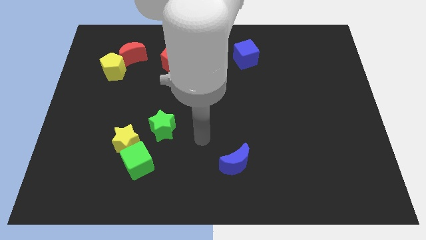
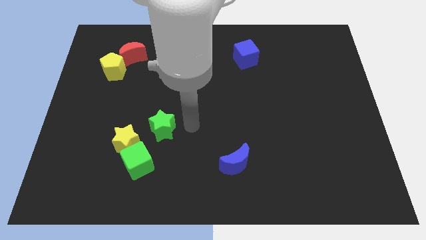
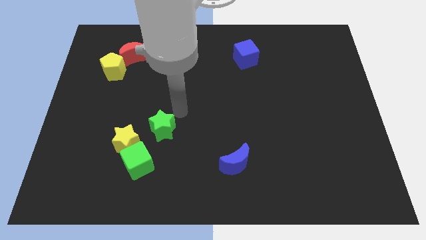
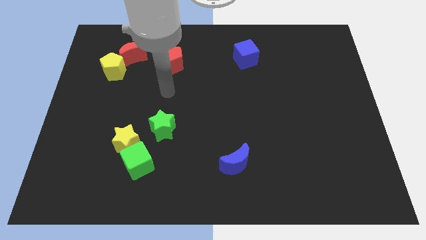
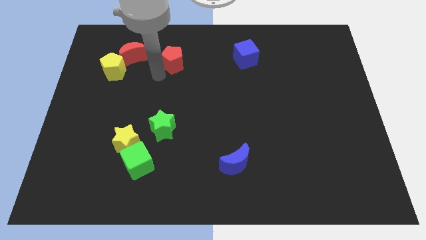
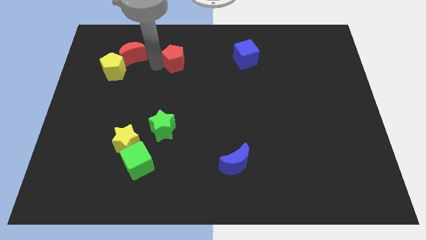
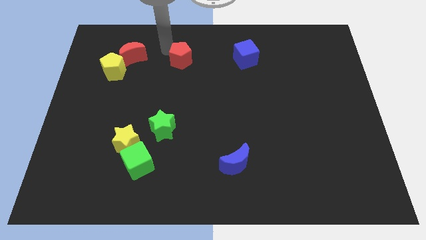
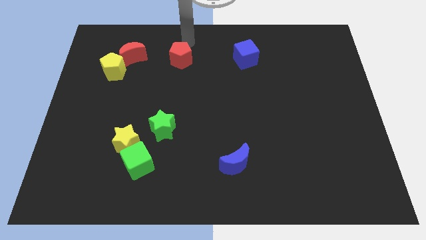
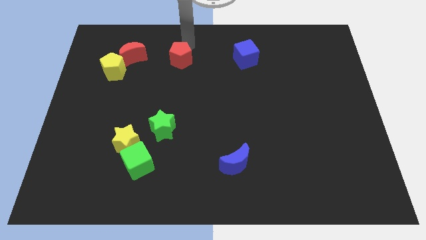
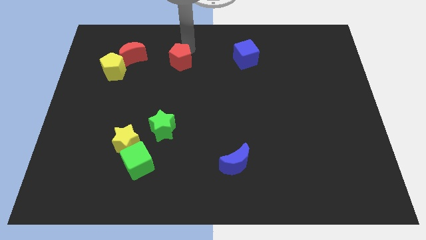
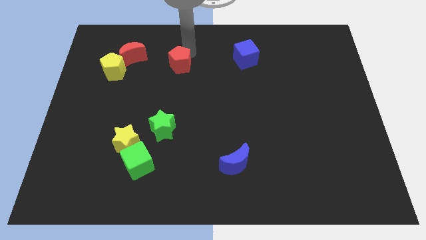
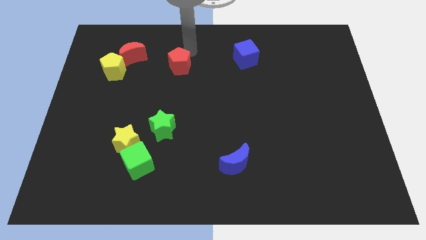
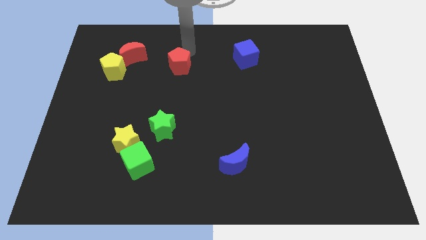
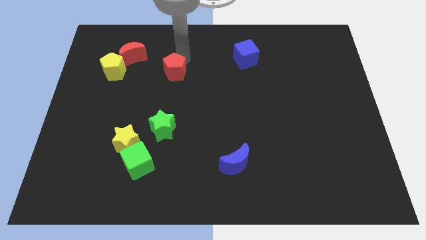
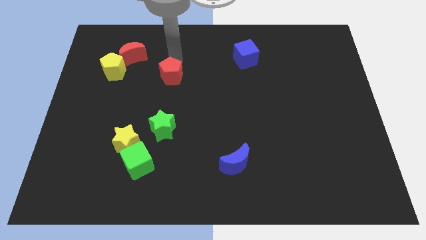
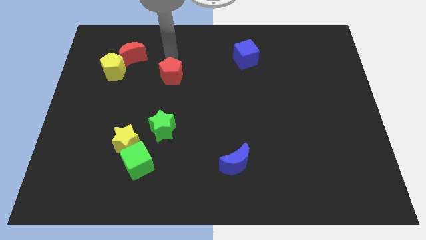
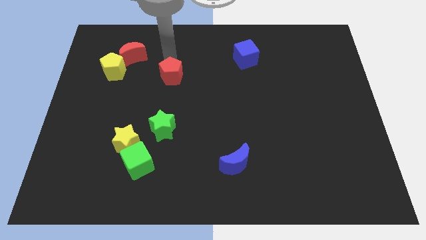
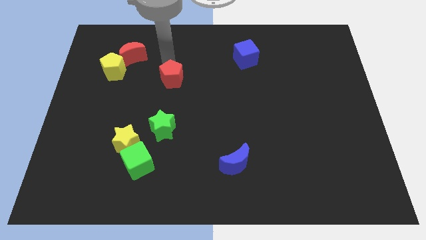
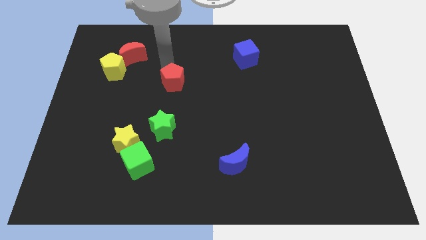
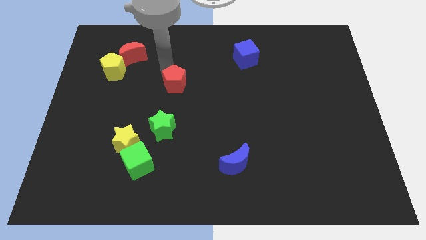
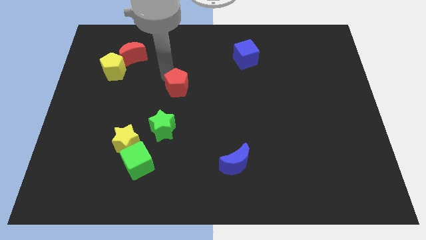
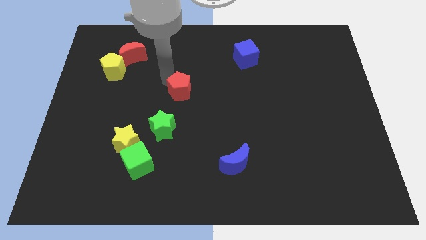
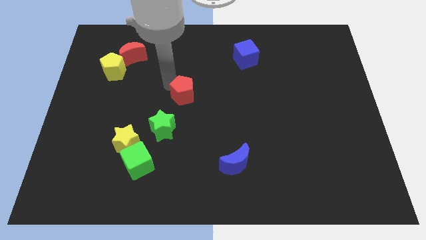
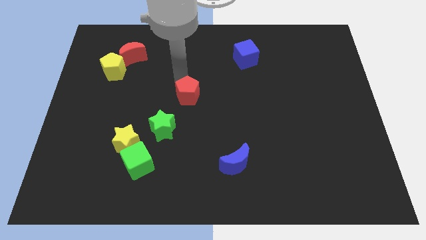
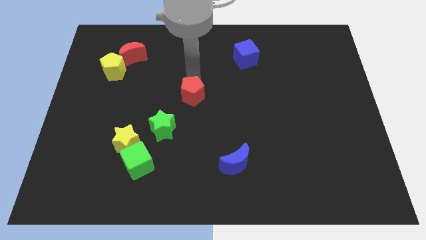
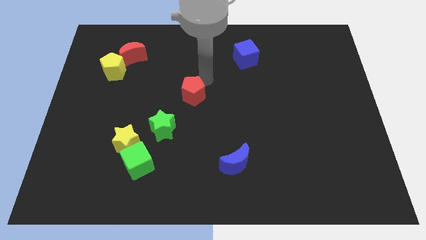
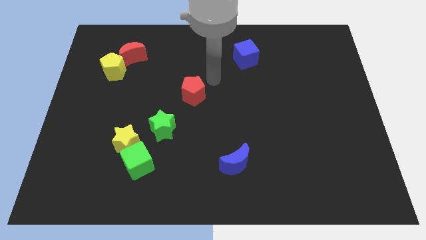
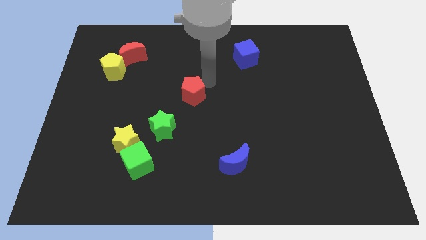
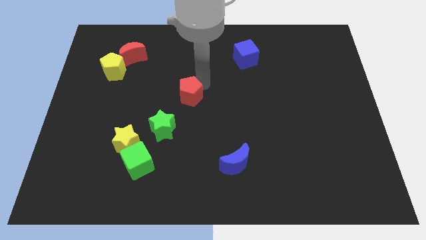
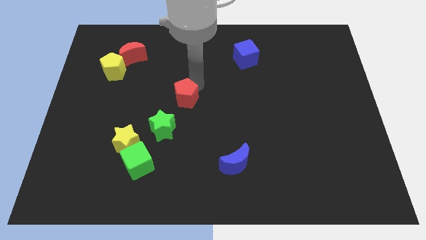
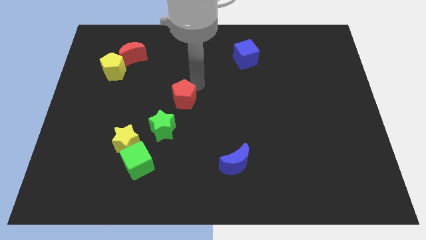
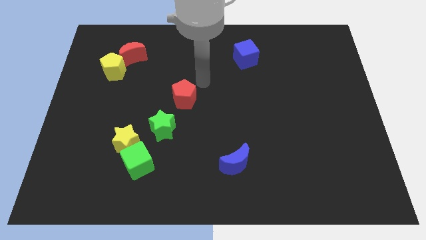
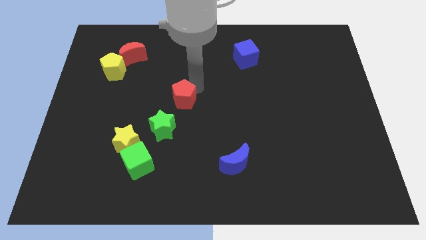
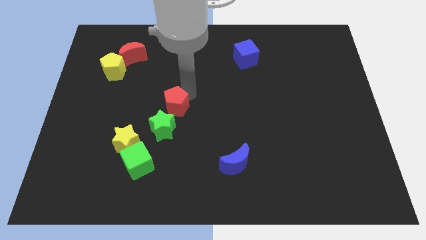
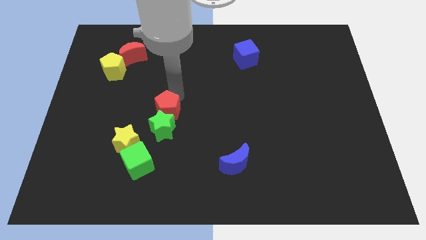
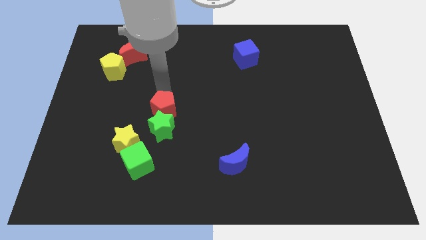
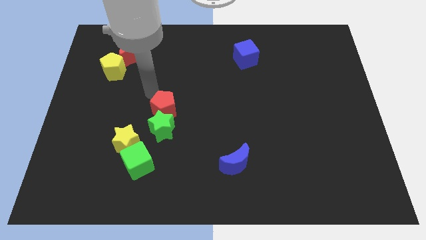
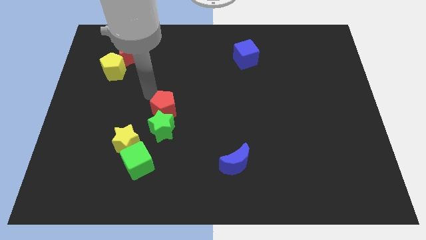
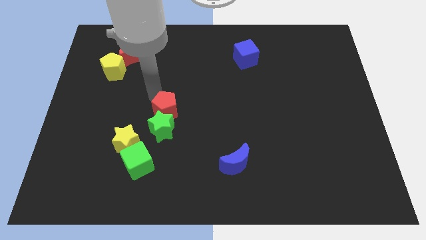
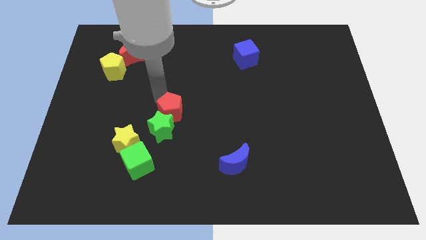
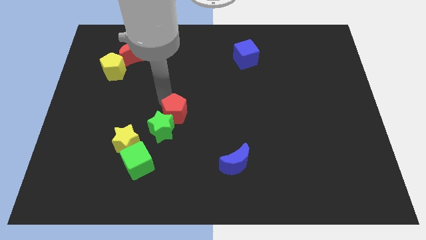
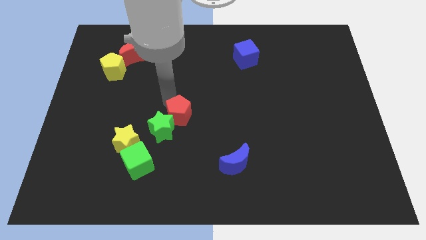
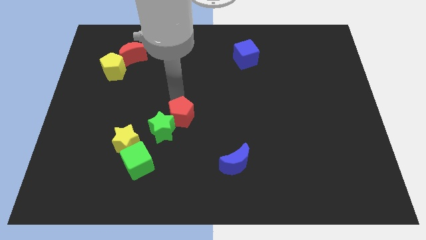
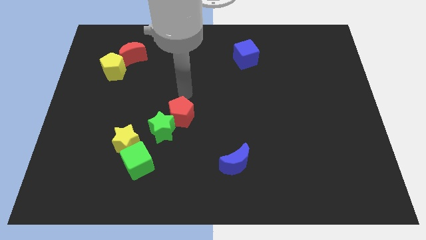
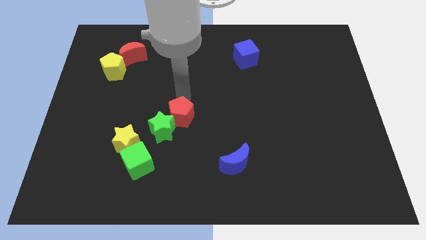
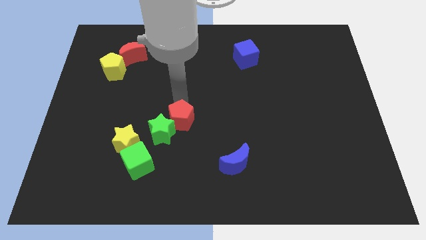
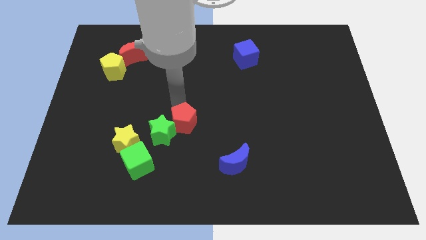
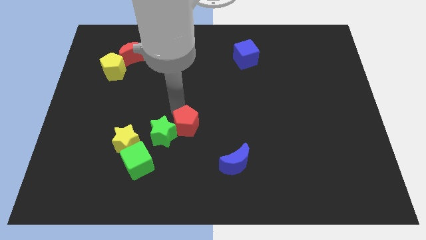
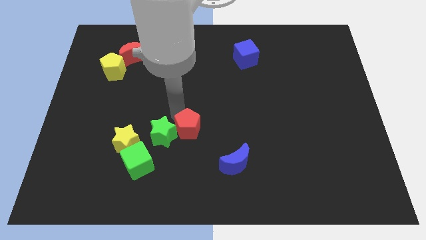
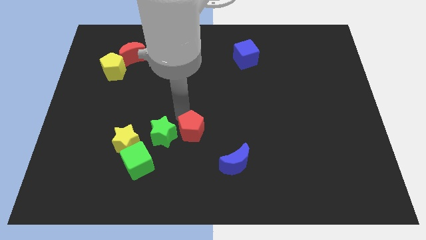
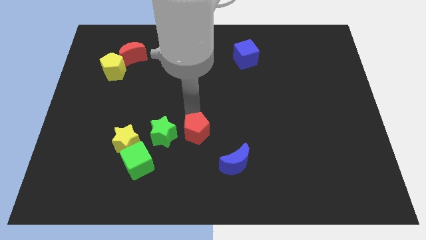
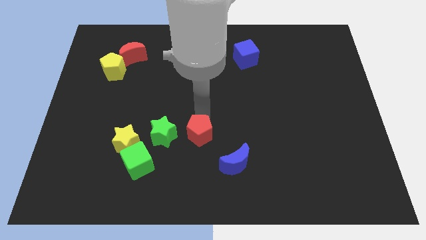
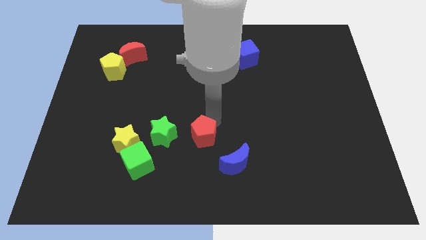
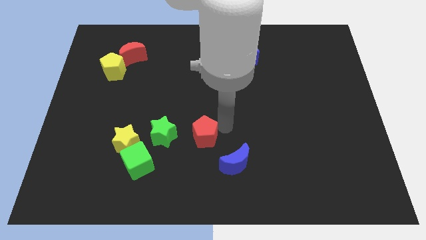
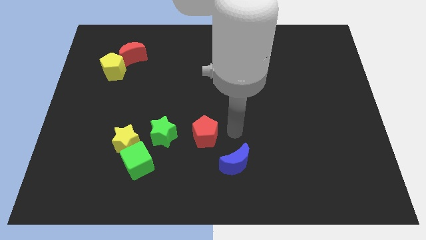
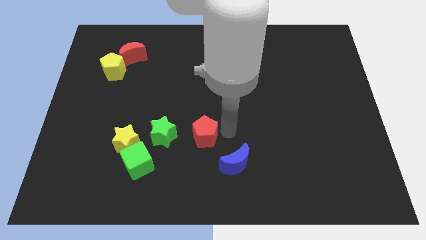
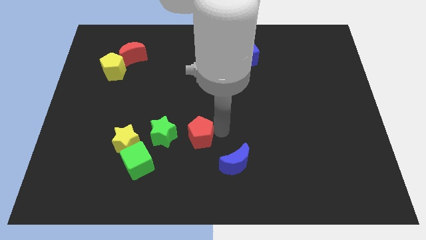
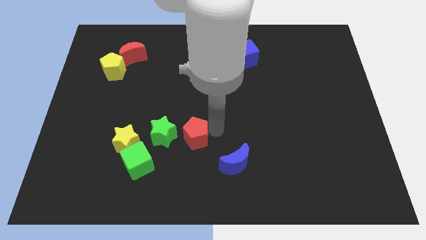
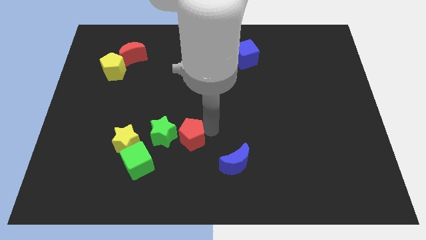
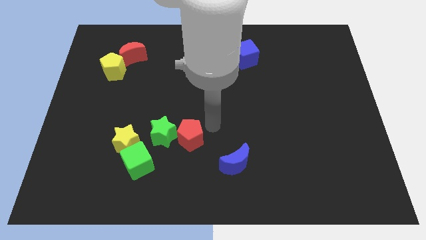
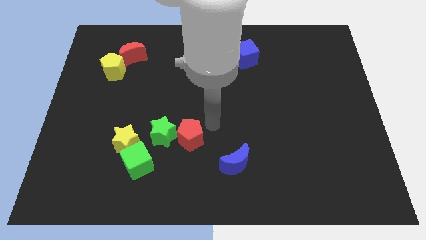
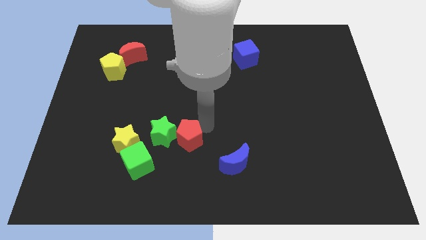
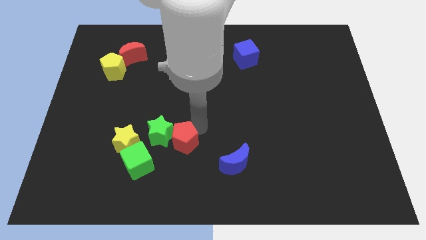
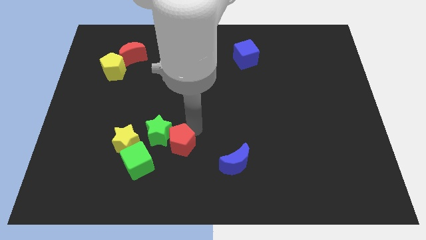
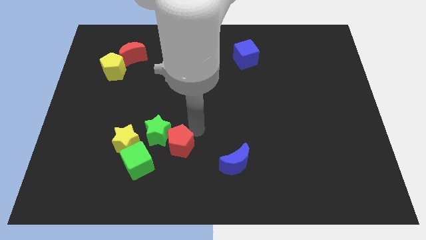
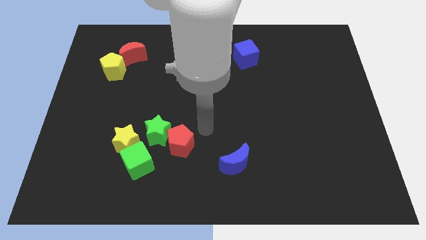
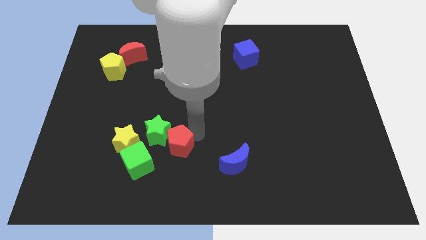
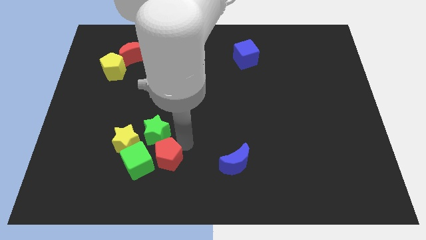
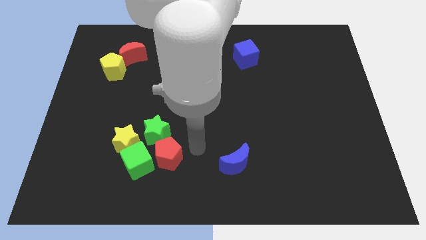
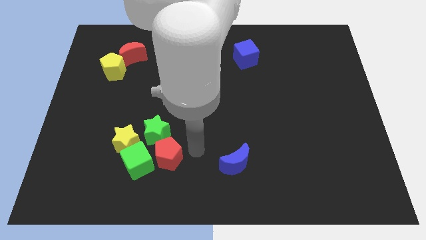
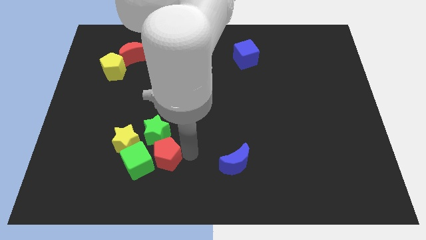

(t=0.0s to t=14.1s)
put the red pentagon close to the green cube

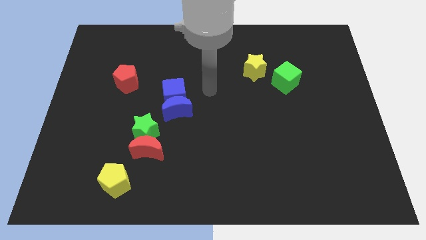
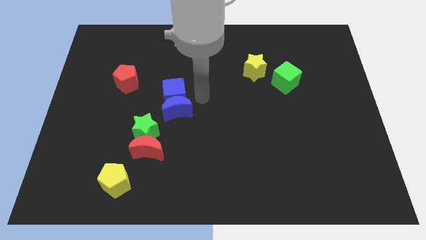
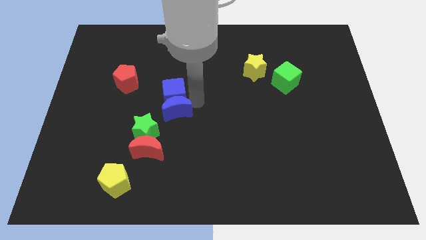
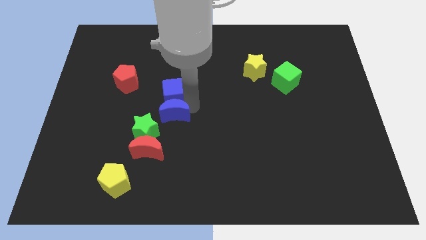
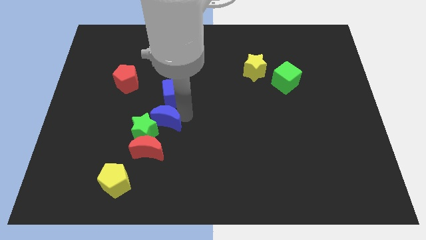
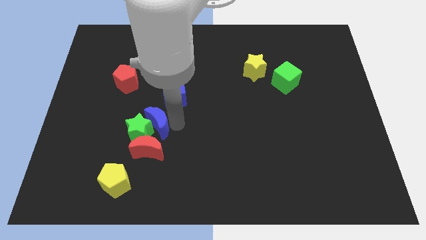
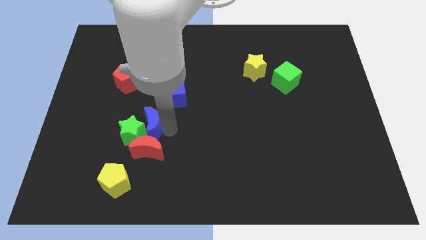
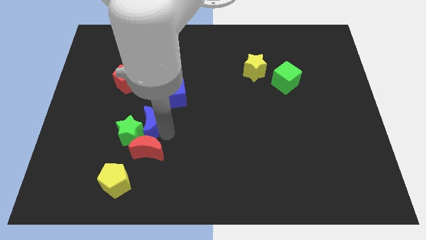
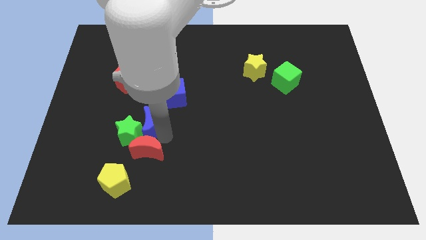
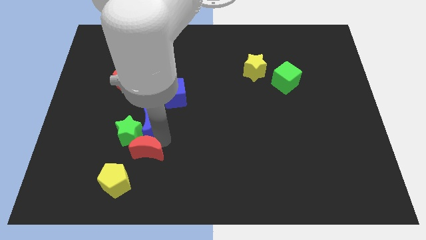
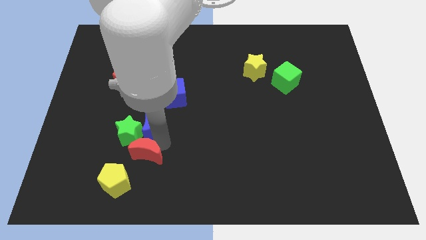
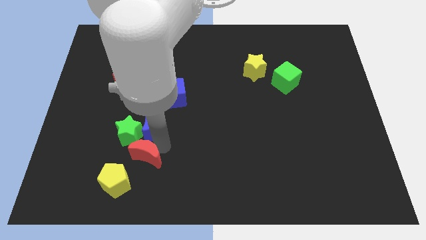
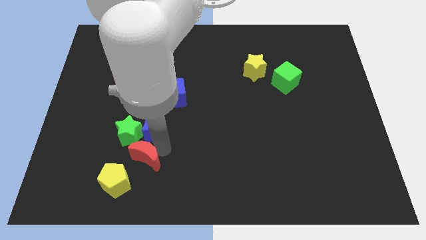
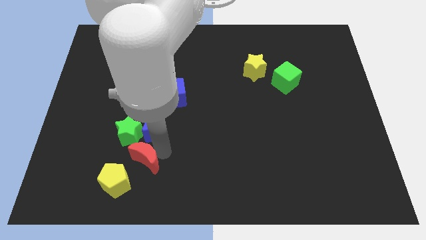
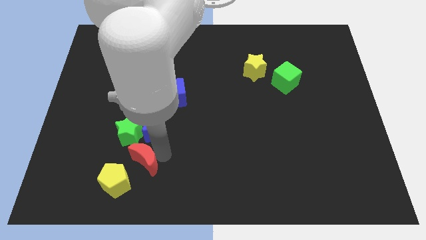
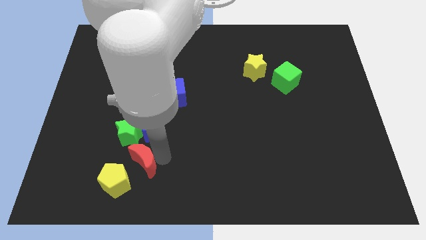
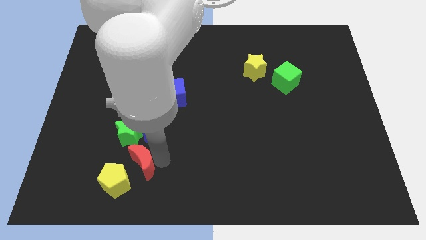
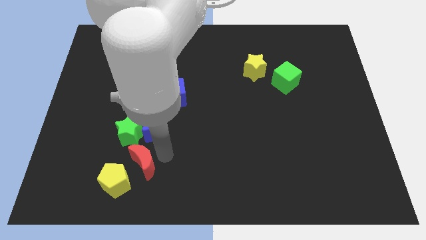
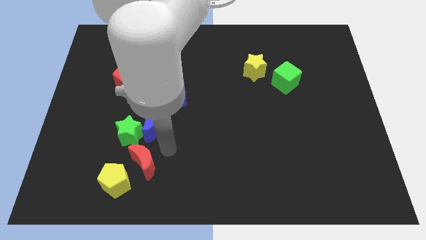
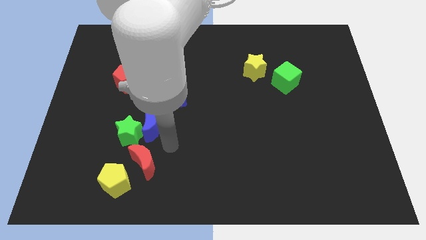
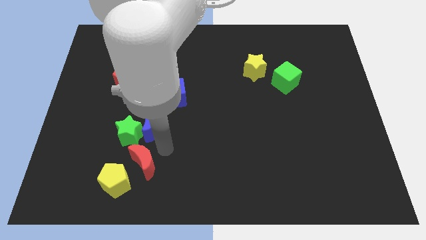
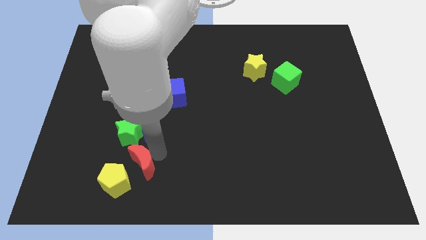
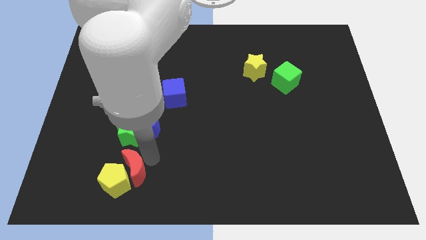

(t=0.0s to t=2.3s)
move the red moon next to the yellow pentagon
